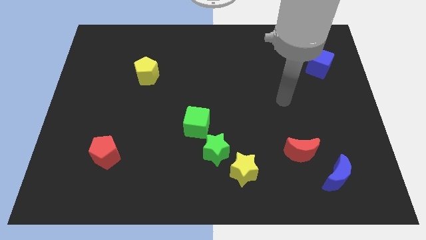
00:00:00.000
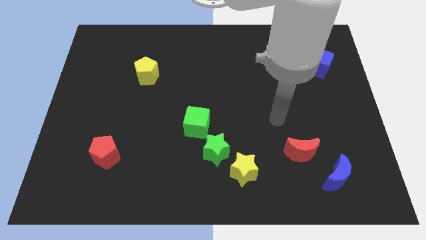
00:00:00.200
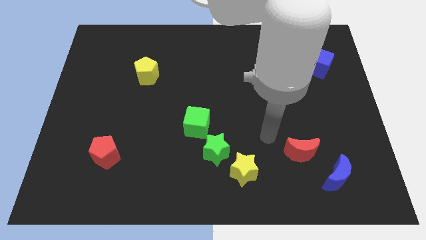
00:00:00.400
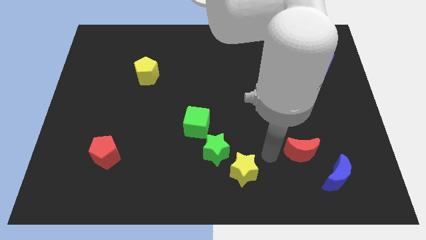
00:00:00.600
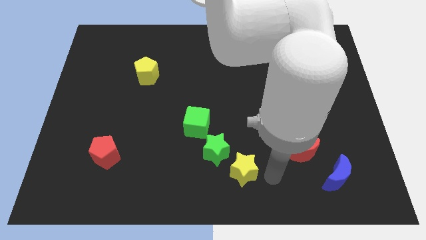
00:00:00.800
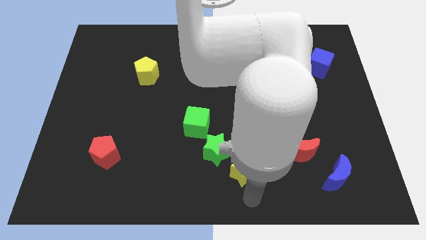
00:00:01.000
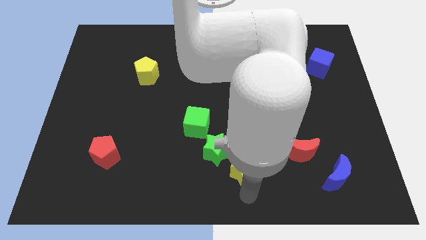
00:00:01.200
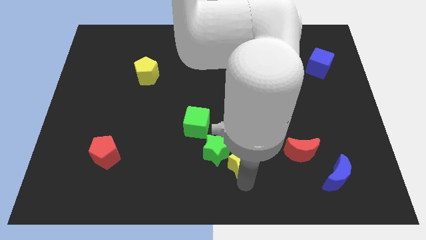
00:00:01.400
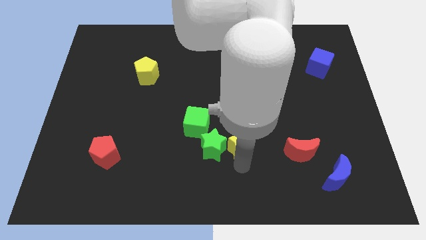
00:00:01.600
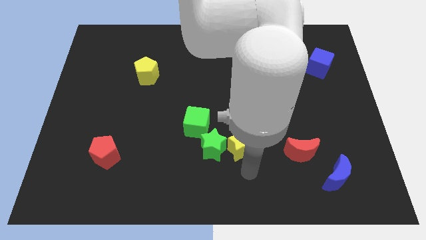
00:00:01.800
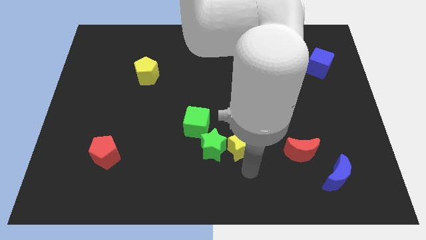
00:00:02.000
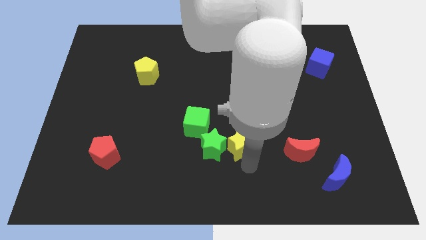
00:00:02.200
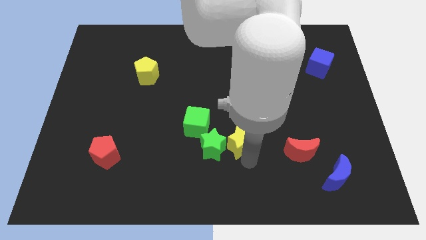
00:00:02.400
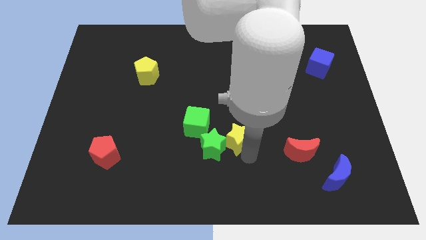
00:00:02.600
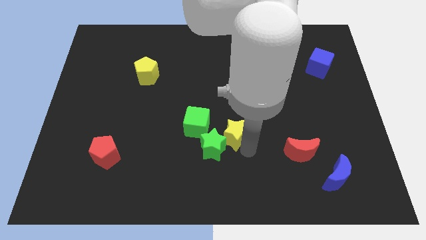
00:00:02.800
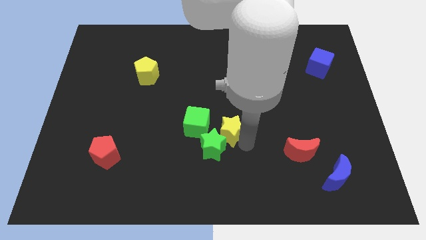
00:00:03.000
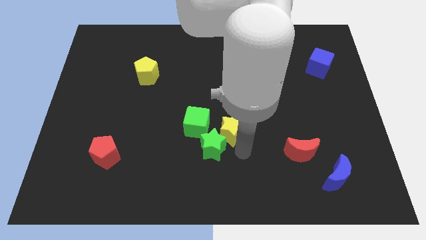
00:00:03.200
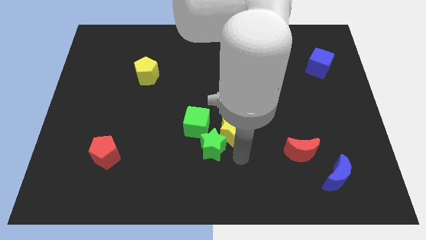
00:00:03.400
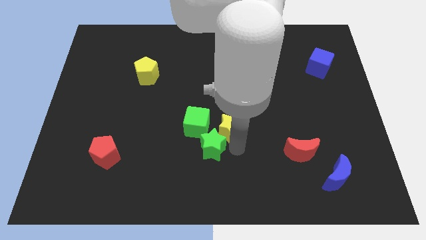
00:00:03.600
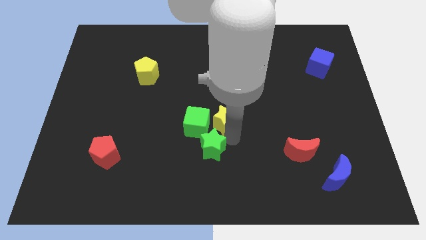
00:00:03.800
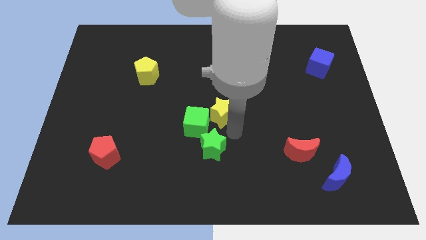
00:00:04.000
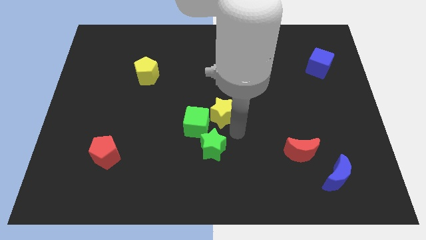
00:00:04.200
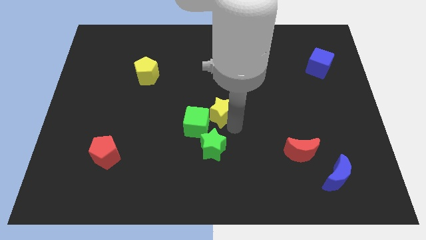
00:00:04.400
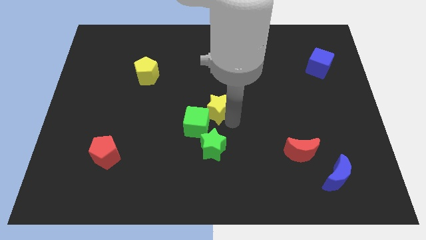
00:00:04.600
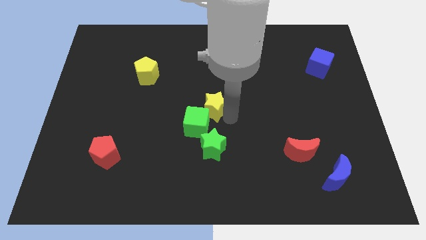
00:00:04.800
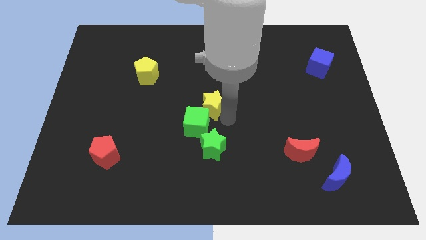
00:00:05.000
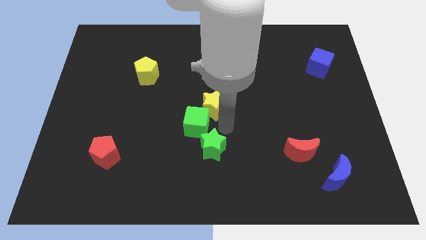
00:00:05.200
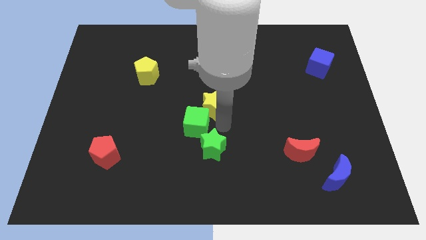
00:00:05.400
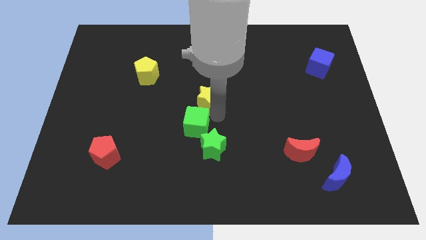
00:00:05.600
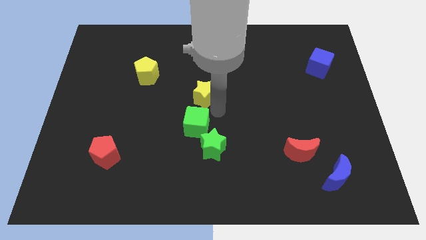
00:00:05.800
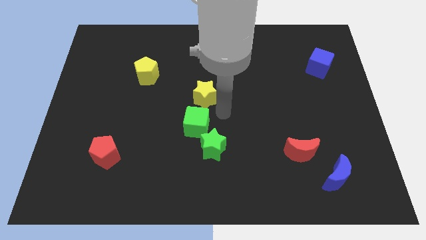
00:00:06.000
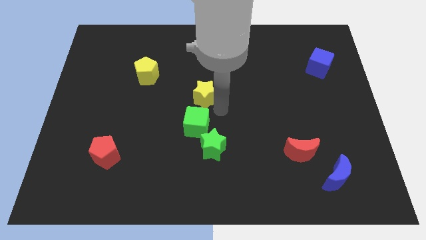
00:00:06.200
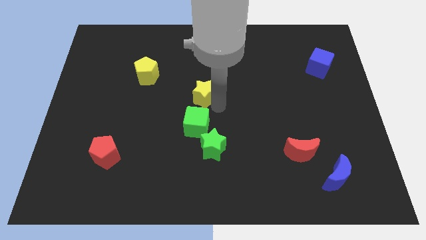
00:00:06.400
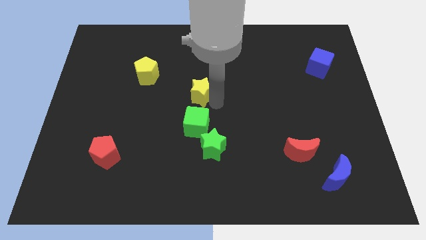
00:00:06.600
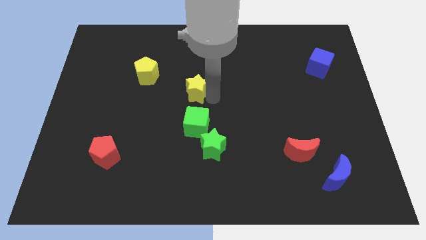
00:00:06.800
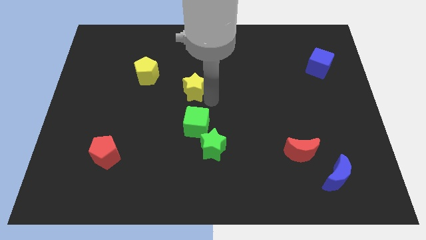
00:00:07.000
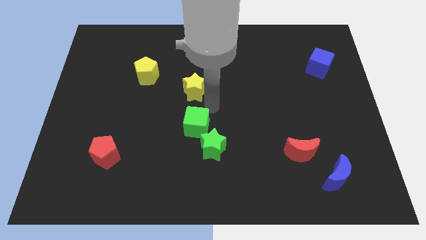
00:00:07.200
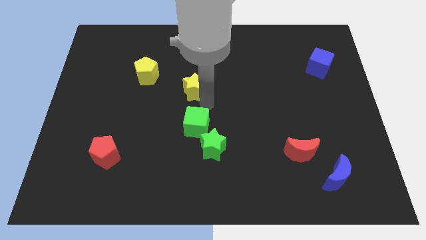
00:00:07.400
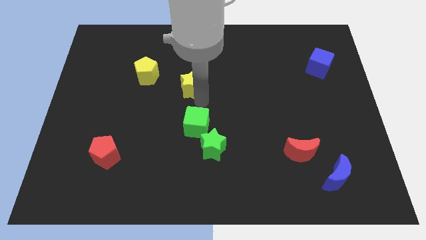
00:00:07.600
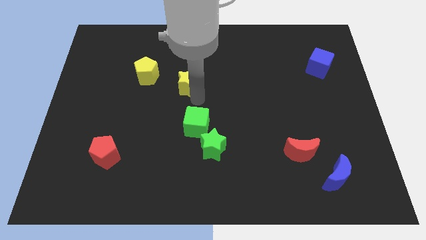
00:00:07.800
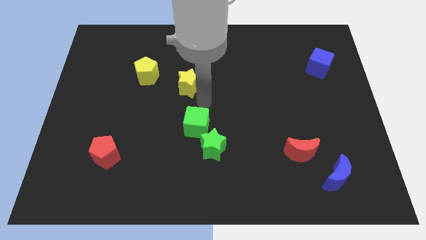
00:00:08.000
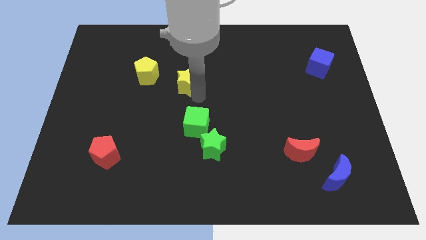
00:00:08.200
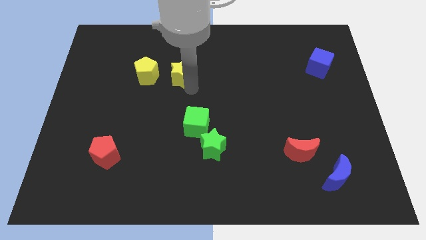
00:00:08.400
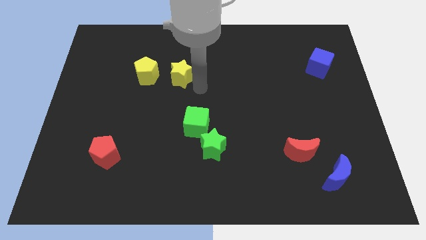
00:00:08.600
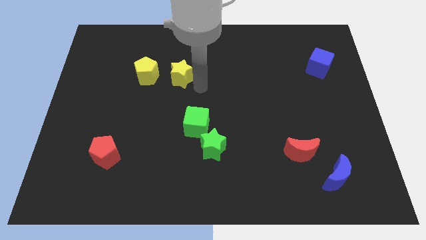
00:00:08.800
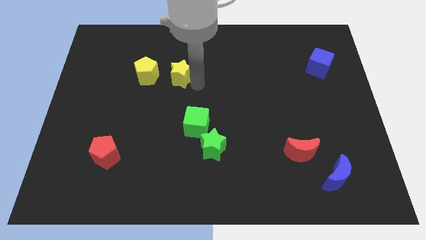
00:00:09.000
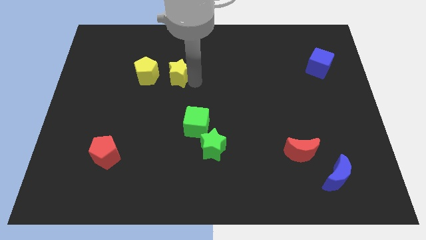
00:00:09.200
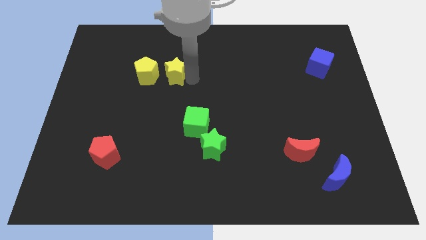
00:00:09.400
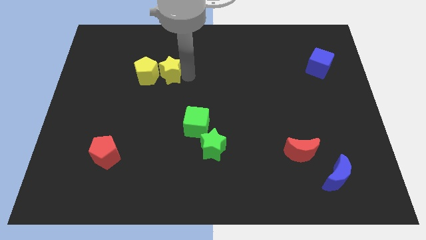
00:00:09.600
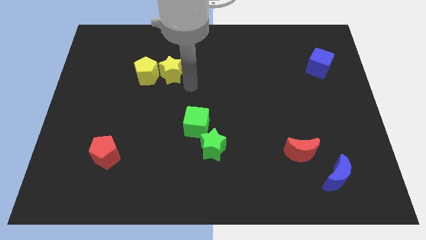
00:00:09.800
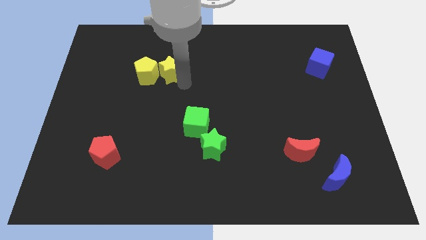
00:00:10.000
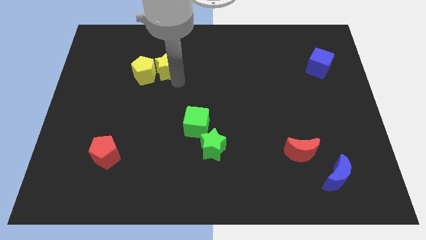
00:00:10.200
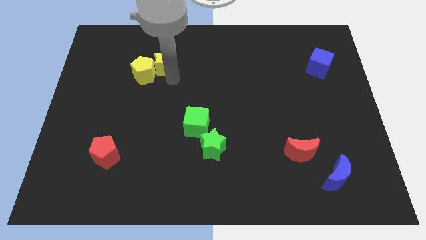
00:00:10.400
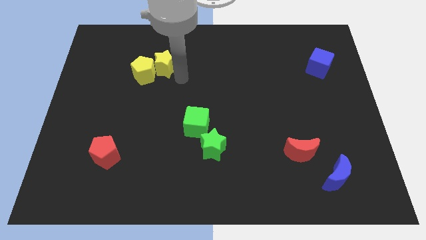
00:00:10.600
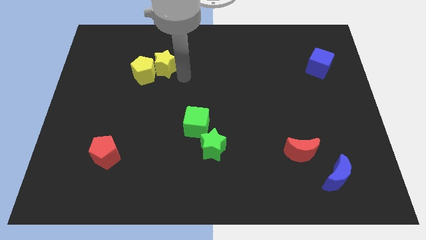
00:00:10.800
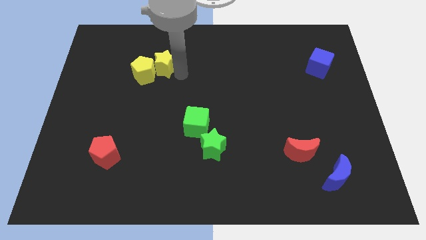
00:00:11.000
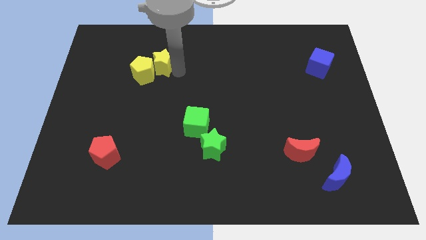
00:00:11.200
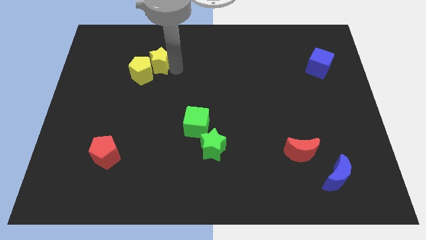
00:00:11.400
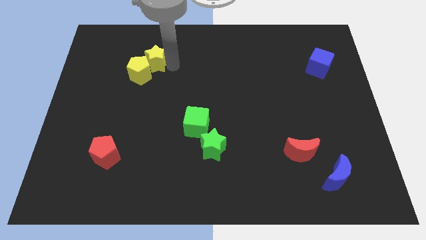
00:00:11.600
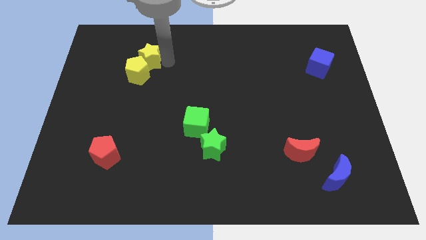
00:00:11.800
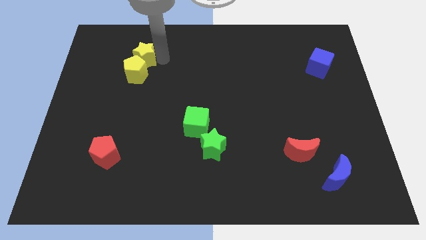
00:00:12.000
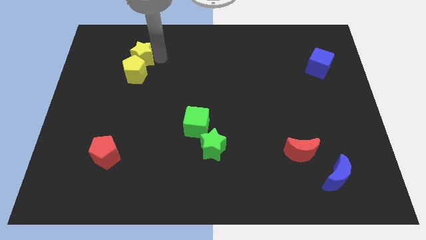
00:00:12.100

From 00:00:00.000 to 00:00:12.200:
slide the yellow star diagonally up and to the left of the yellow pentagon

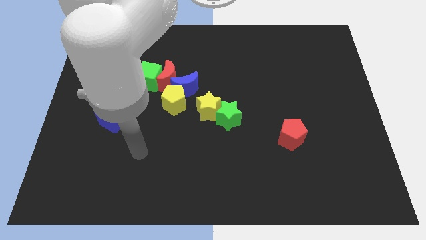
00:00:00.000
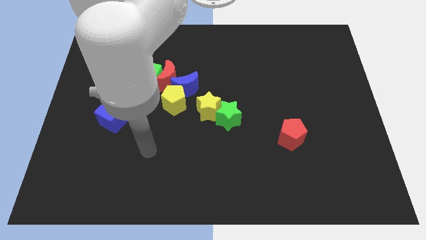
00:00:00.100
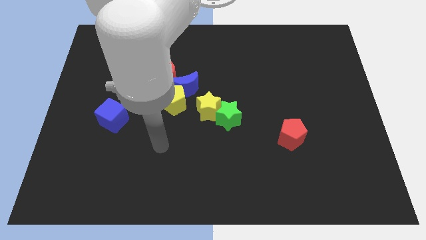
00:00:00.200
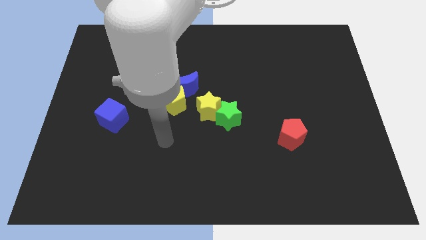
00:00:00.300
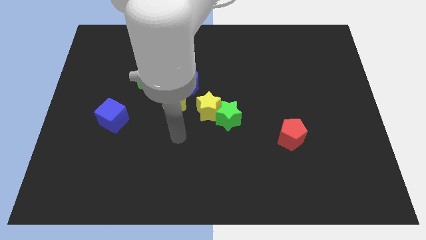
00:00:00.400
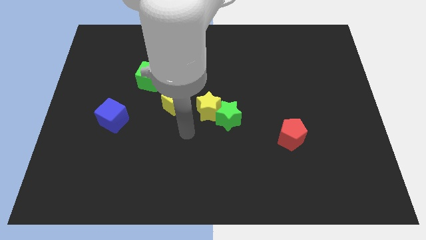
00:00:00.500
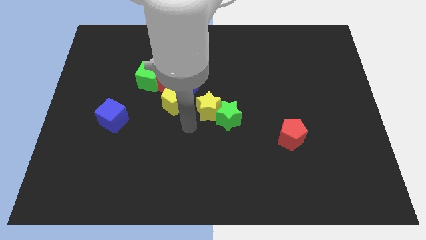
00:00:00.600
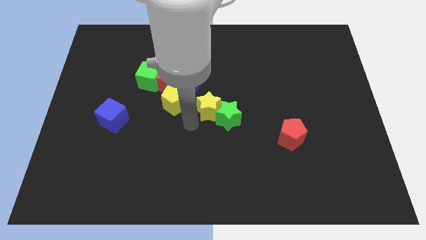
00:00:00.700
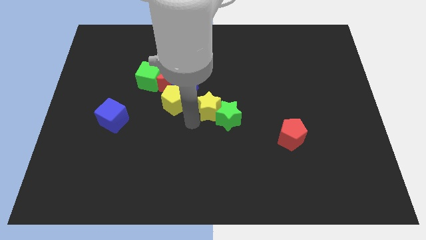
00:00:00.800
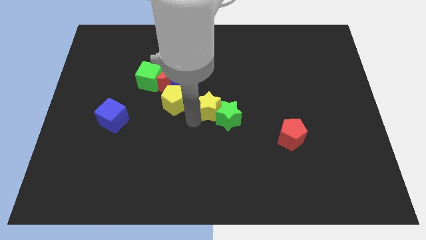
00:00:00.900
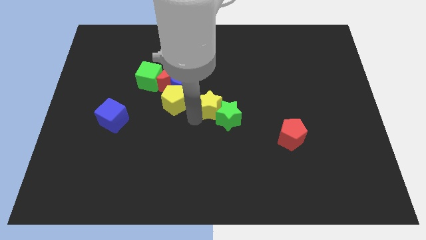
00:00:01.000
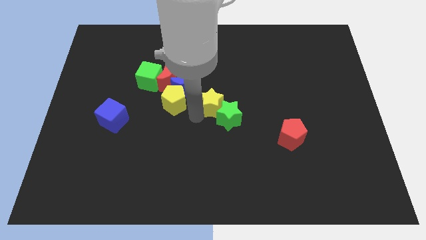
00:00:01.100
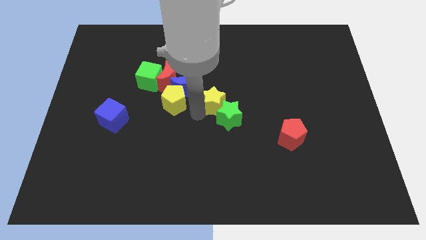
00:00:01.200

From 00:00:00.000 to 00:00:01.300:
put the yellow star right of the blue moon
